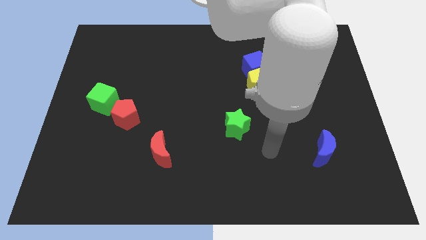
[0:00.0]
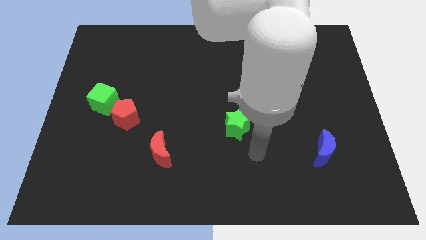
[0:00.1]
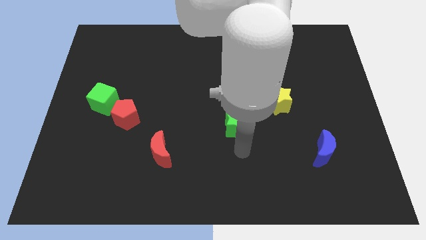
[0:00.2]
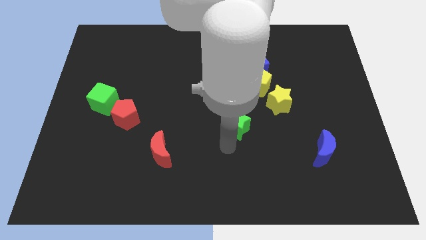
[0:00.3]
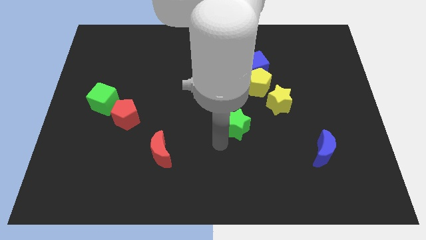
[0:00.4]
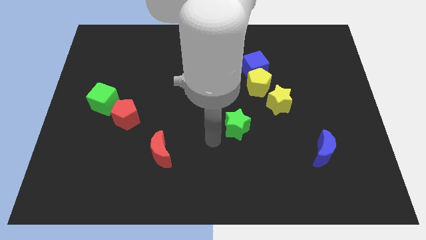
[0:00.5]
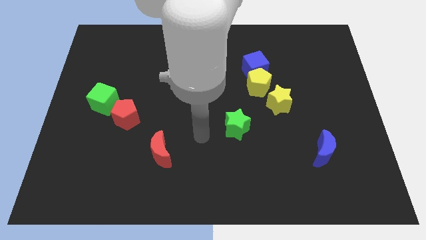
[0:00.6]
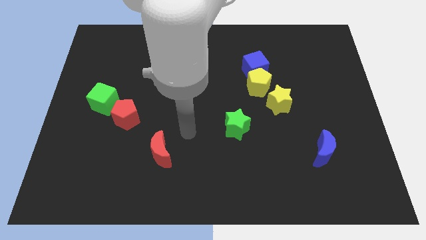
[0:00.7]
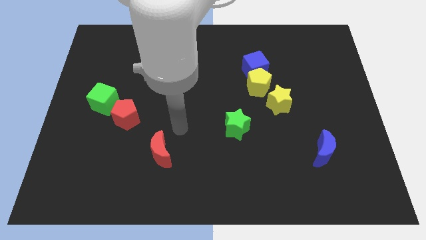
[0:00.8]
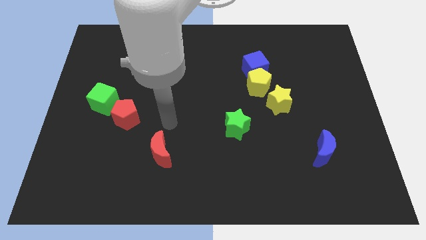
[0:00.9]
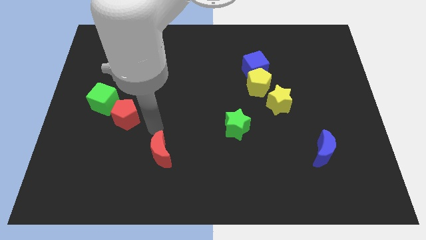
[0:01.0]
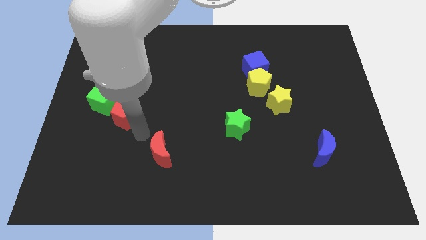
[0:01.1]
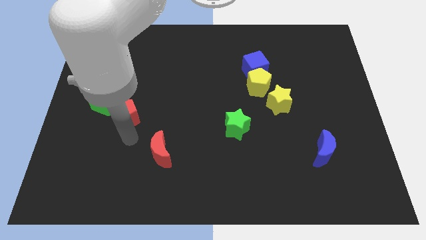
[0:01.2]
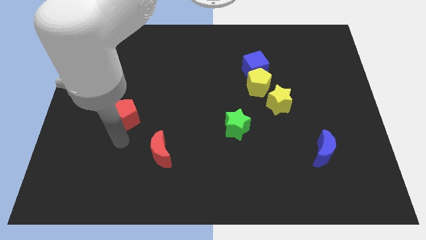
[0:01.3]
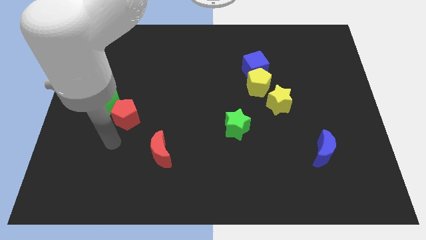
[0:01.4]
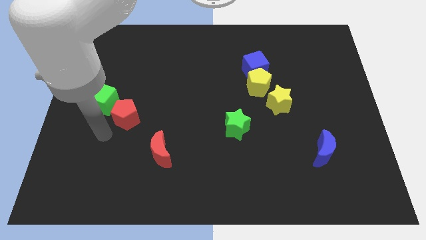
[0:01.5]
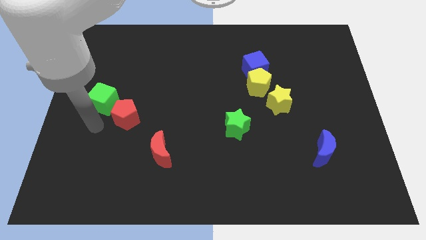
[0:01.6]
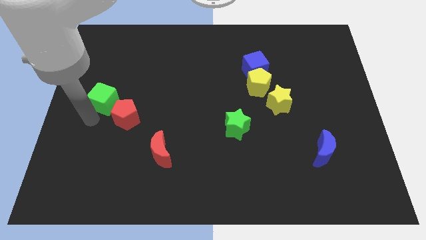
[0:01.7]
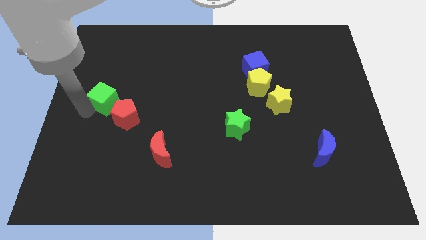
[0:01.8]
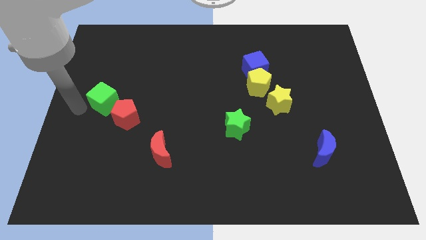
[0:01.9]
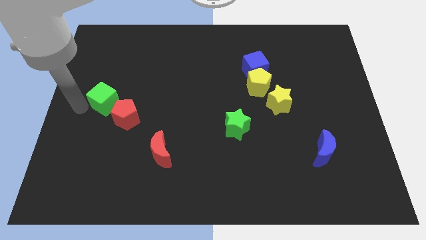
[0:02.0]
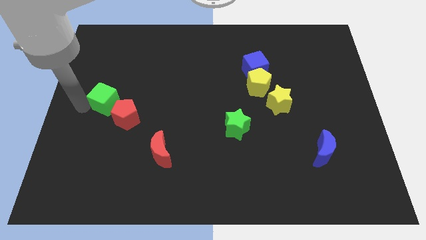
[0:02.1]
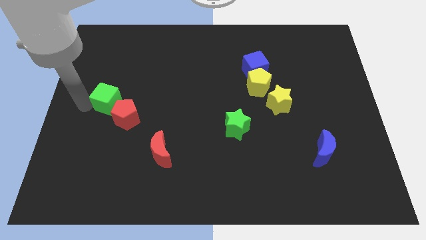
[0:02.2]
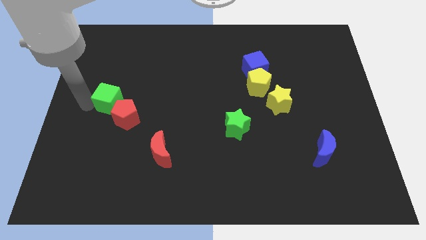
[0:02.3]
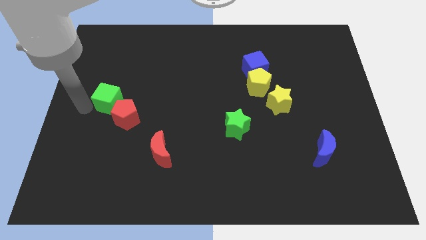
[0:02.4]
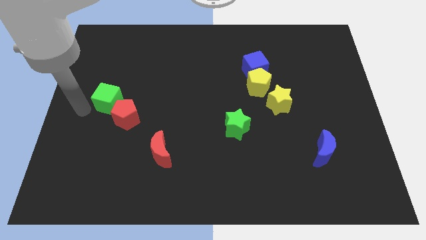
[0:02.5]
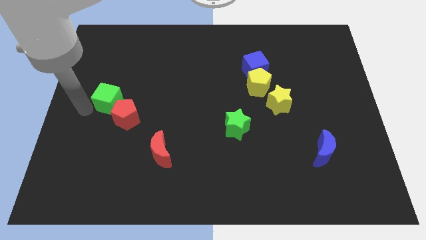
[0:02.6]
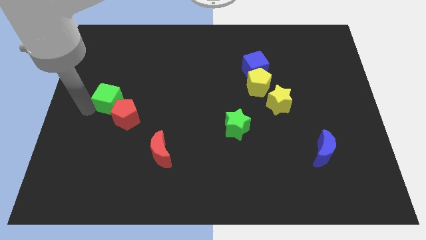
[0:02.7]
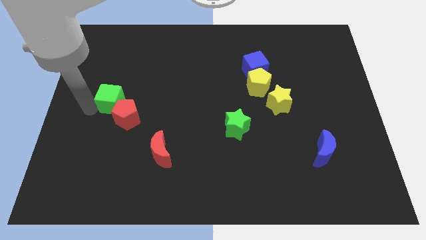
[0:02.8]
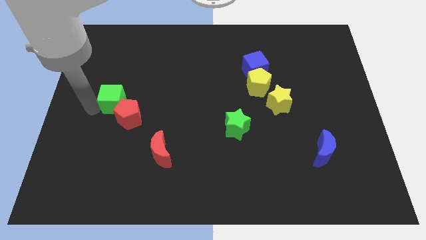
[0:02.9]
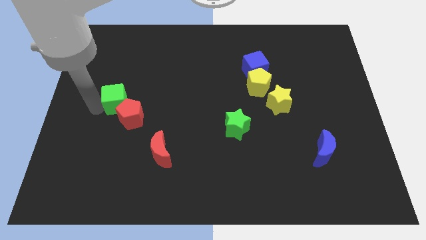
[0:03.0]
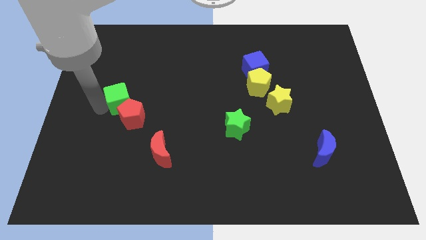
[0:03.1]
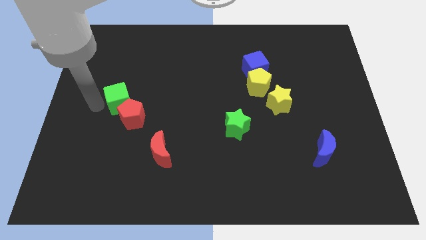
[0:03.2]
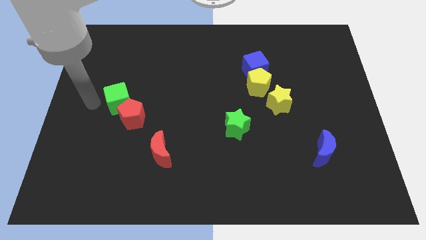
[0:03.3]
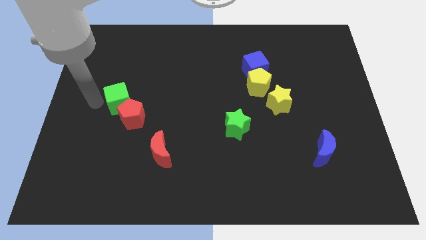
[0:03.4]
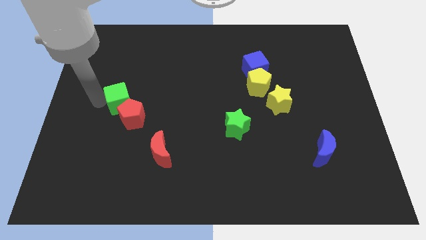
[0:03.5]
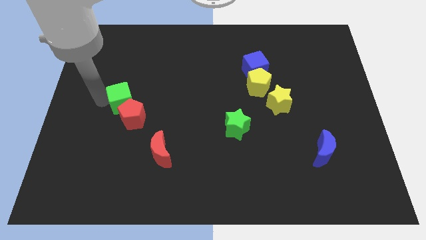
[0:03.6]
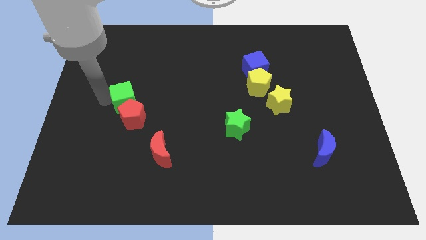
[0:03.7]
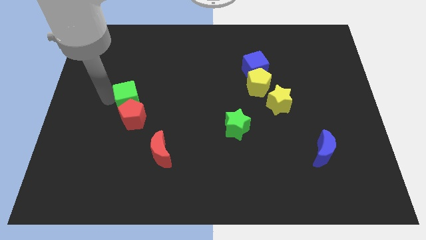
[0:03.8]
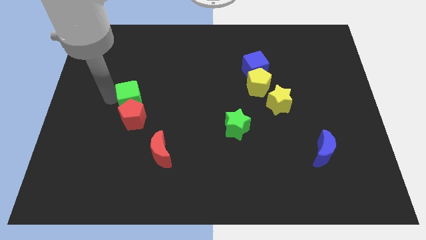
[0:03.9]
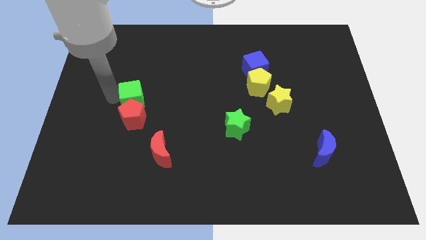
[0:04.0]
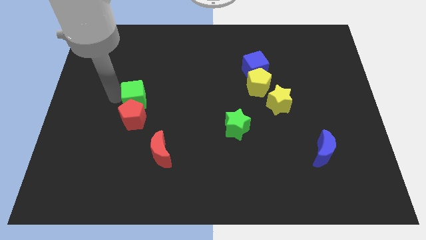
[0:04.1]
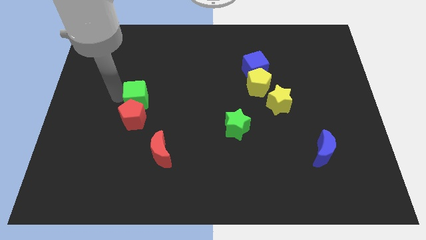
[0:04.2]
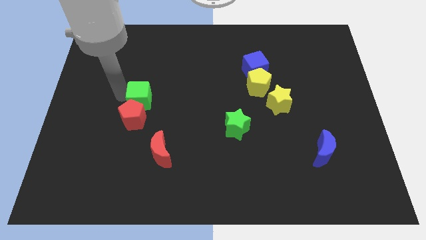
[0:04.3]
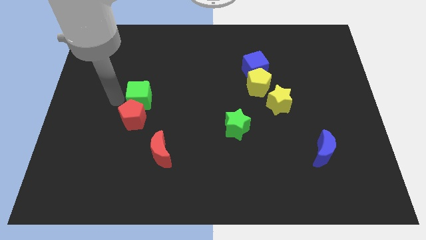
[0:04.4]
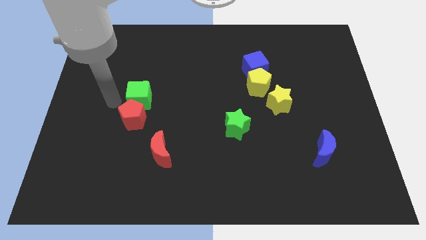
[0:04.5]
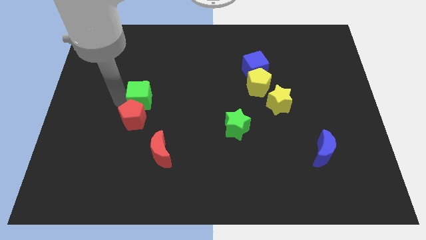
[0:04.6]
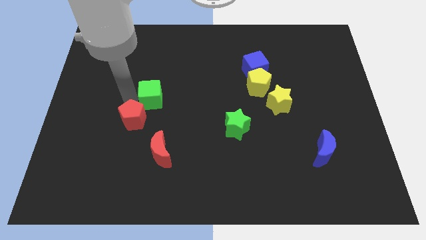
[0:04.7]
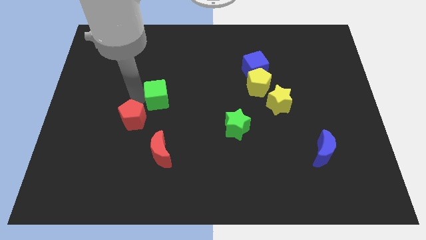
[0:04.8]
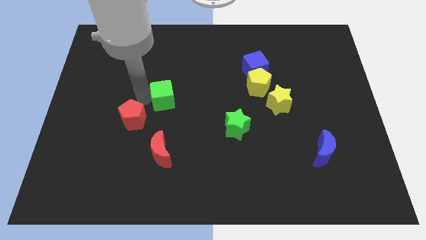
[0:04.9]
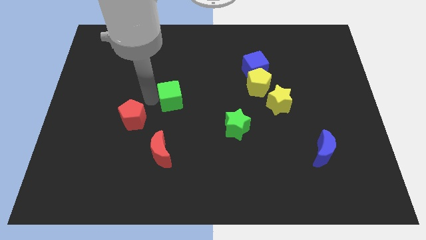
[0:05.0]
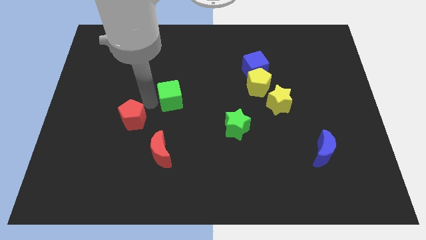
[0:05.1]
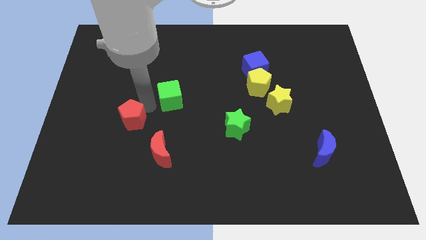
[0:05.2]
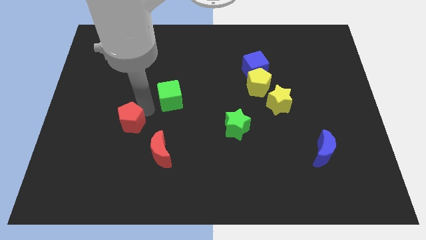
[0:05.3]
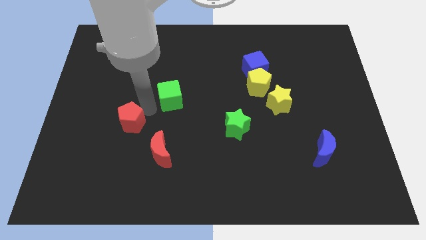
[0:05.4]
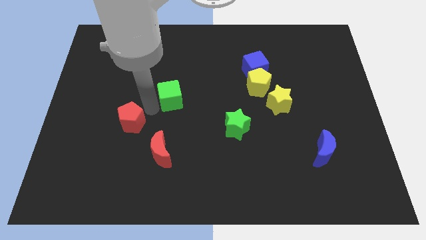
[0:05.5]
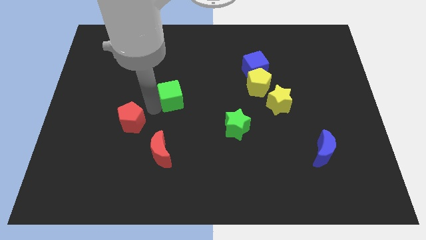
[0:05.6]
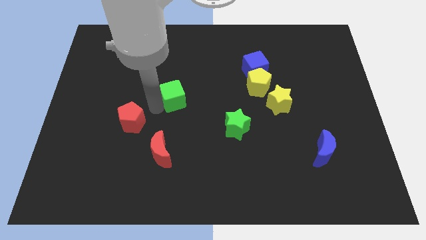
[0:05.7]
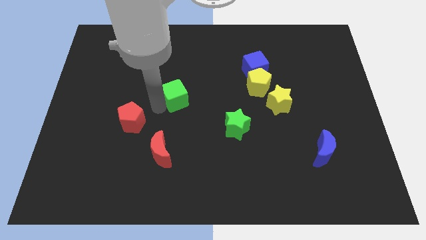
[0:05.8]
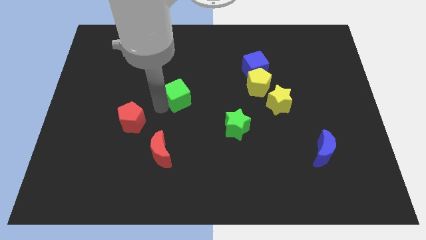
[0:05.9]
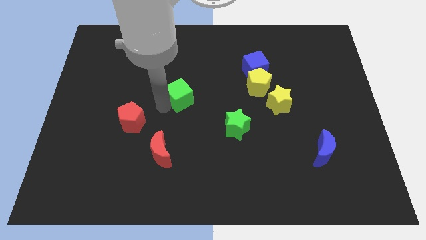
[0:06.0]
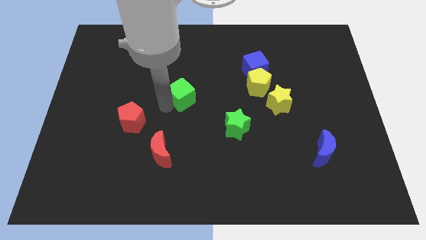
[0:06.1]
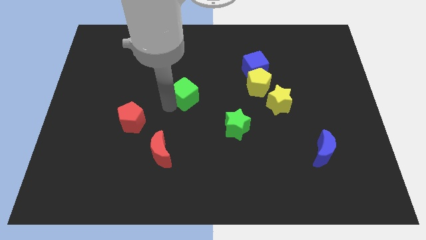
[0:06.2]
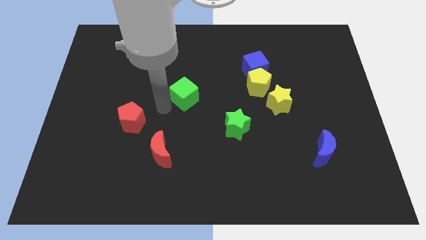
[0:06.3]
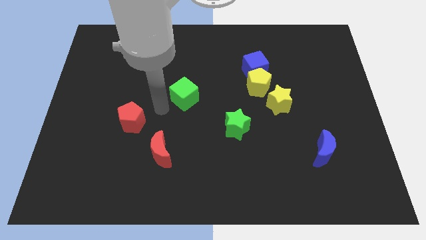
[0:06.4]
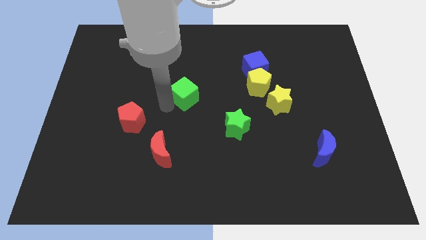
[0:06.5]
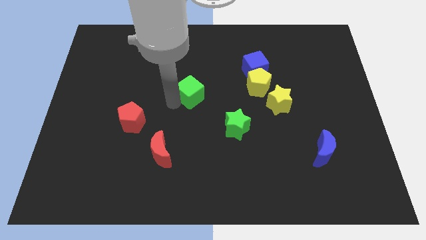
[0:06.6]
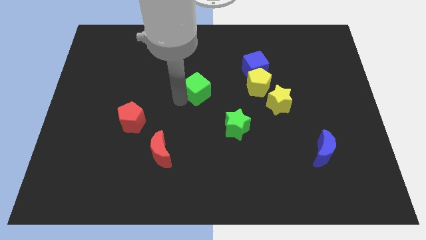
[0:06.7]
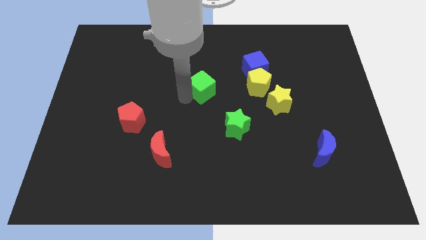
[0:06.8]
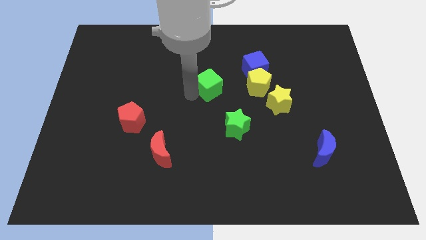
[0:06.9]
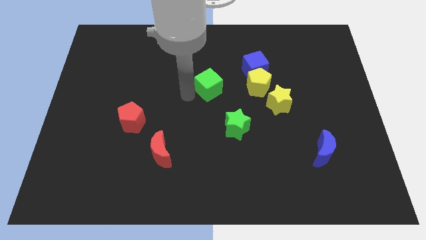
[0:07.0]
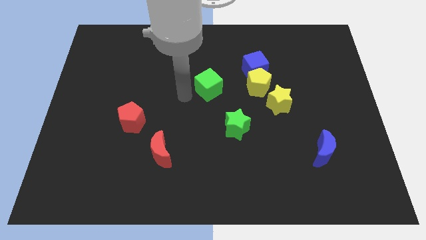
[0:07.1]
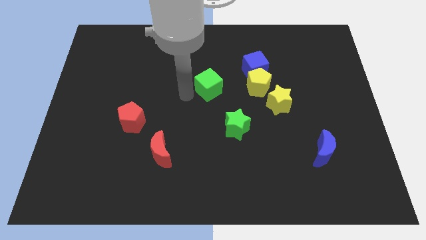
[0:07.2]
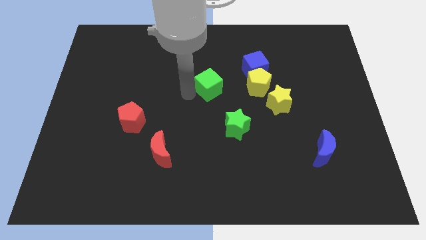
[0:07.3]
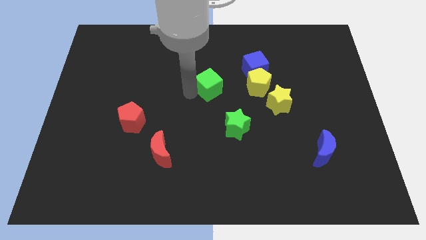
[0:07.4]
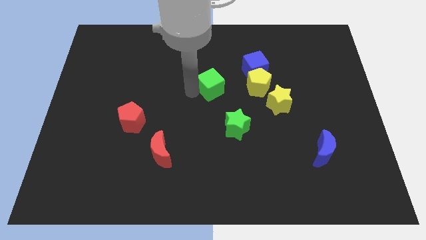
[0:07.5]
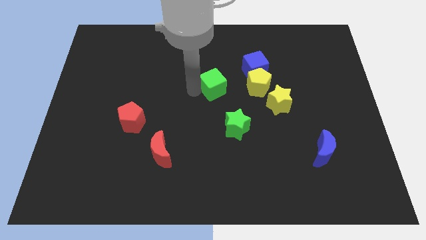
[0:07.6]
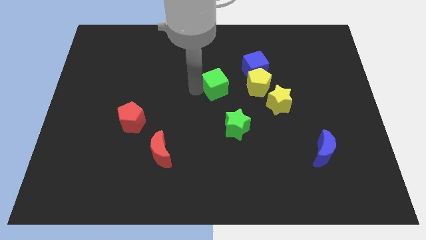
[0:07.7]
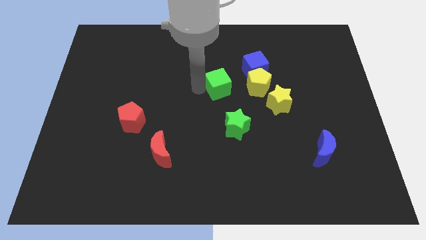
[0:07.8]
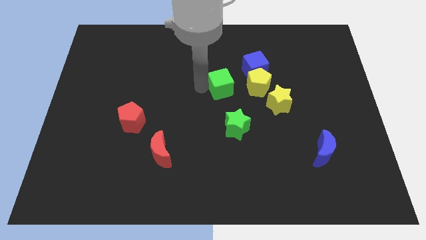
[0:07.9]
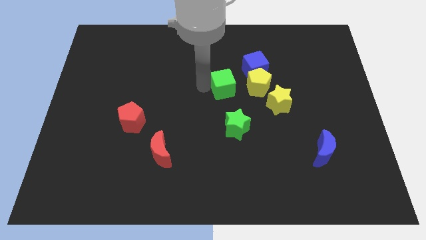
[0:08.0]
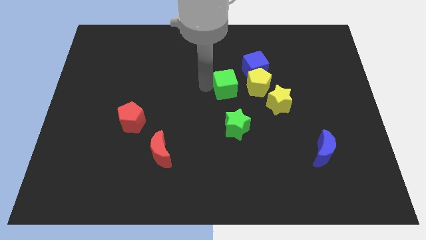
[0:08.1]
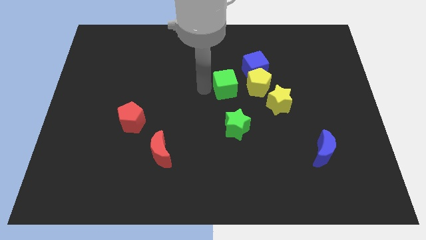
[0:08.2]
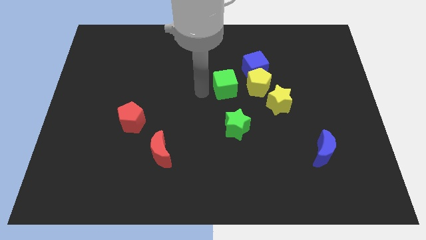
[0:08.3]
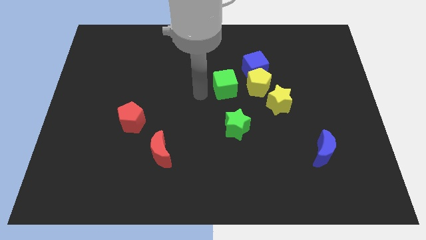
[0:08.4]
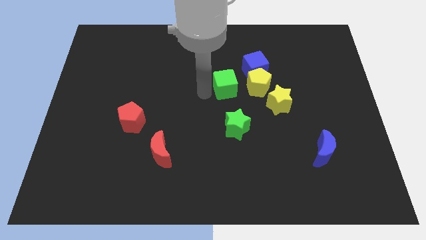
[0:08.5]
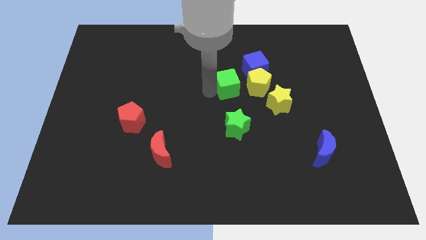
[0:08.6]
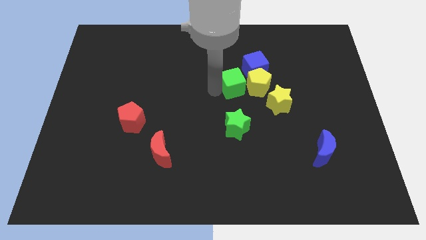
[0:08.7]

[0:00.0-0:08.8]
slide the green cube to the yellow pentagon
